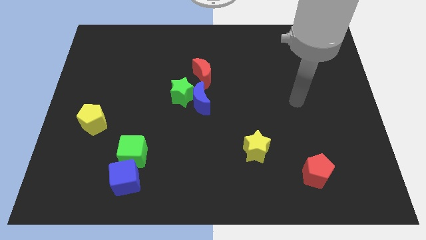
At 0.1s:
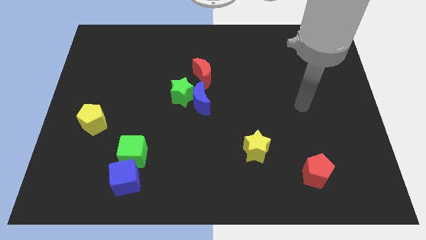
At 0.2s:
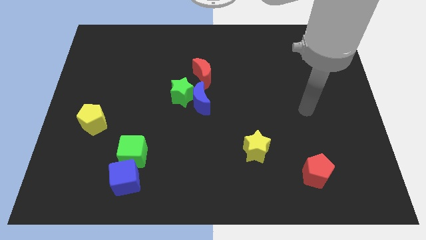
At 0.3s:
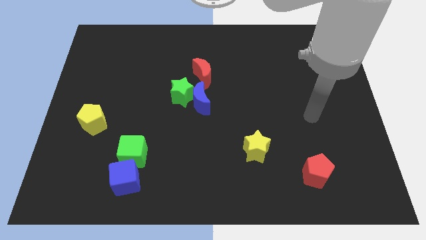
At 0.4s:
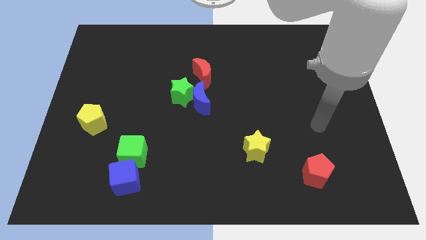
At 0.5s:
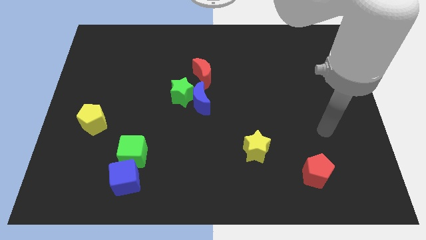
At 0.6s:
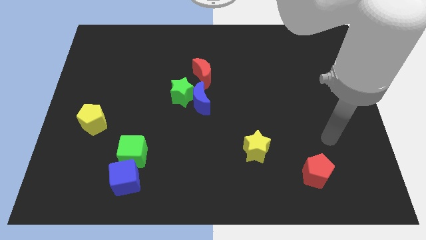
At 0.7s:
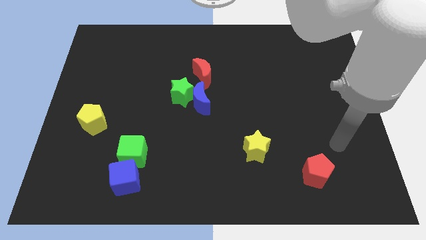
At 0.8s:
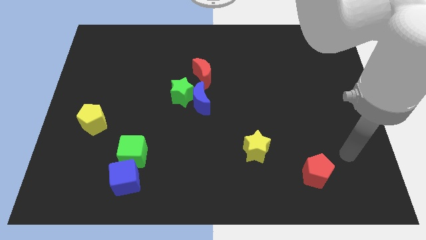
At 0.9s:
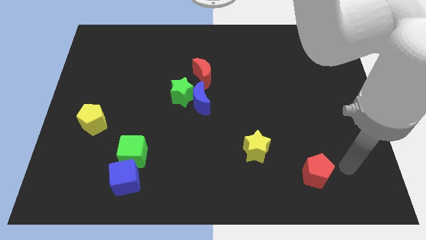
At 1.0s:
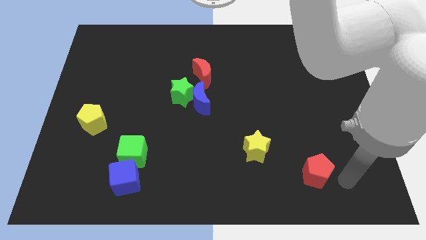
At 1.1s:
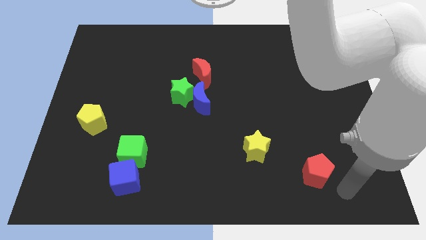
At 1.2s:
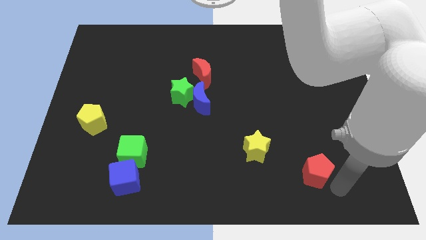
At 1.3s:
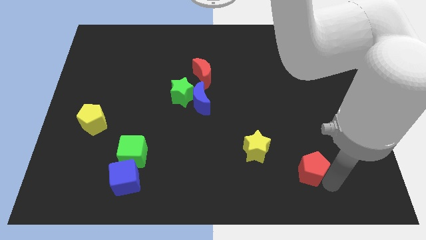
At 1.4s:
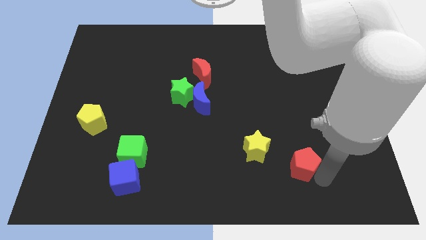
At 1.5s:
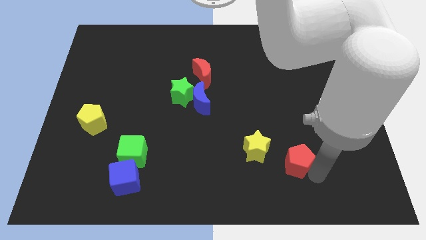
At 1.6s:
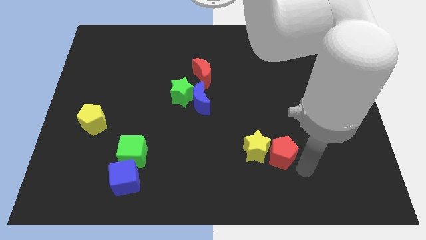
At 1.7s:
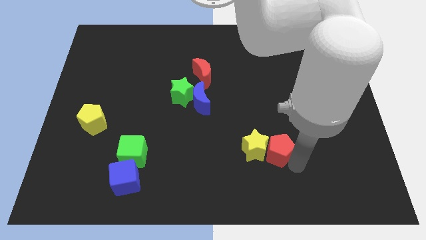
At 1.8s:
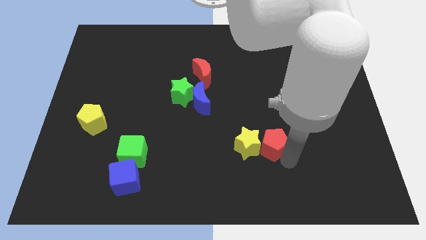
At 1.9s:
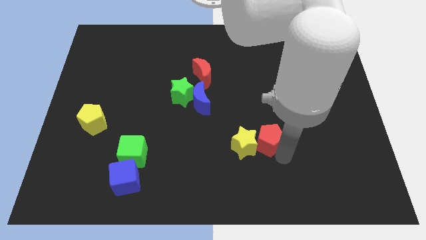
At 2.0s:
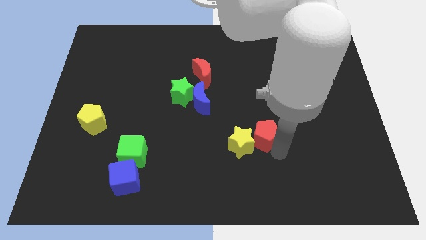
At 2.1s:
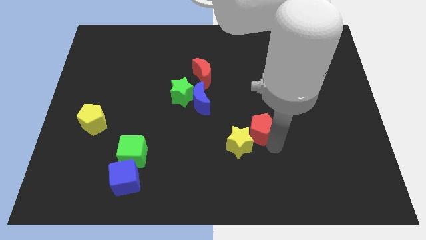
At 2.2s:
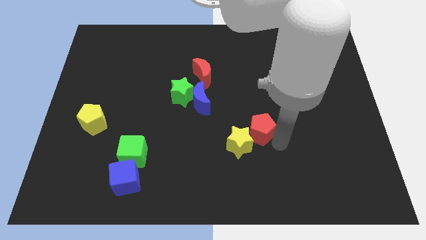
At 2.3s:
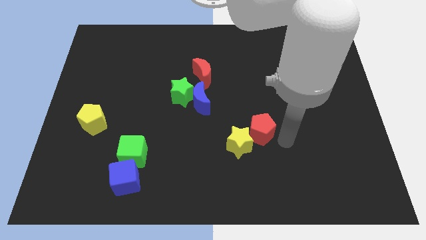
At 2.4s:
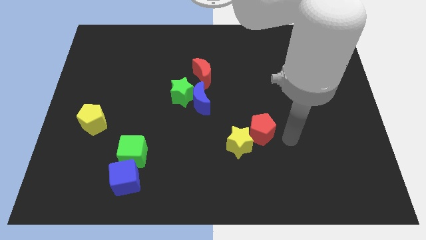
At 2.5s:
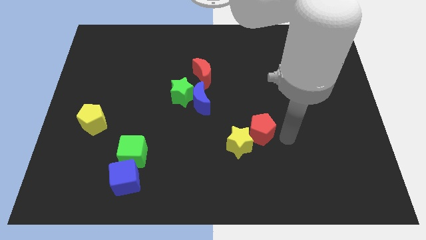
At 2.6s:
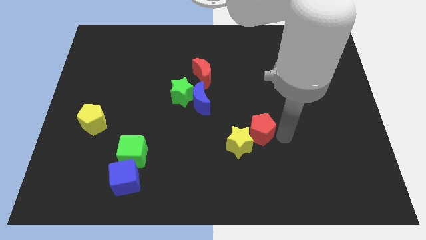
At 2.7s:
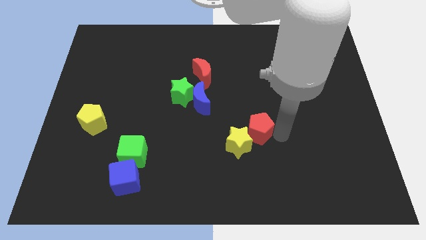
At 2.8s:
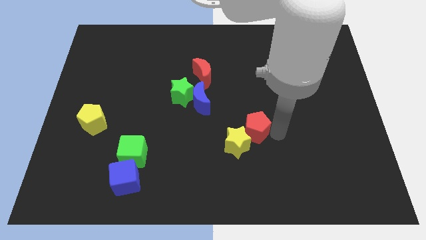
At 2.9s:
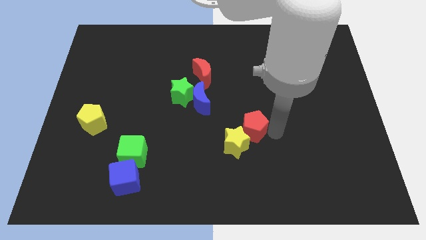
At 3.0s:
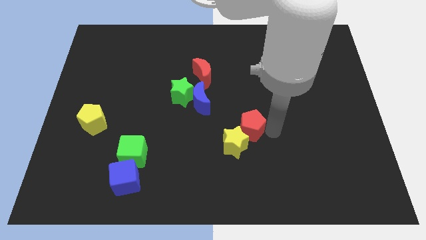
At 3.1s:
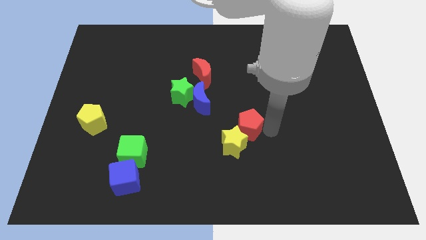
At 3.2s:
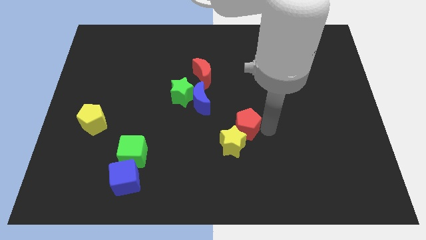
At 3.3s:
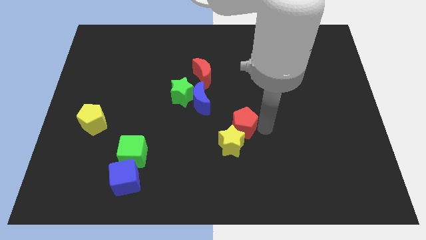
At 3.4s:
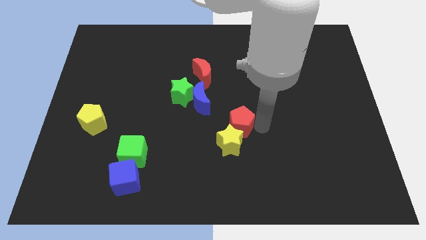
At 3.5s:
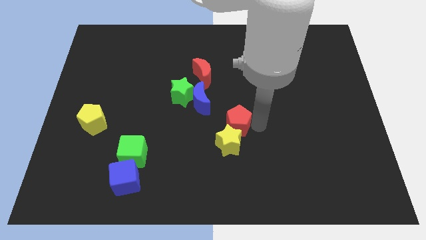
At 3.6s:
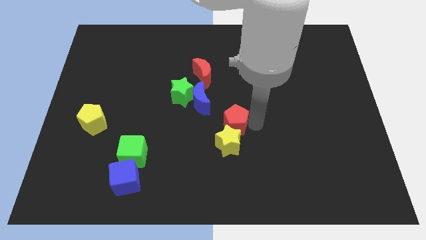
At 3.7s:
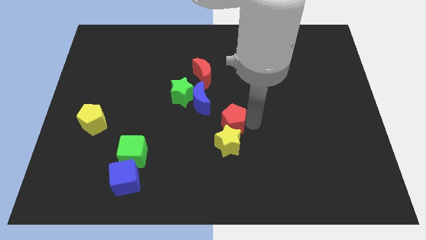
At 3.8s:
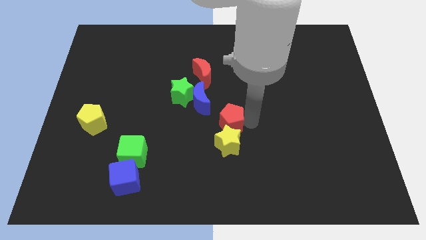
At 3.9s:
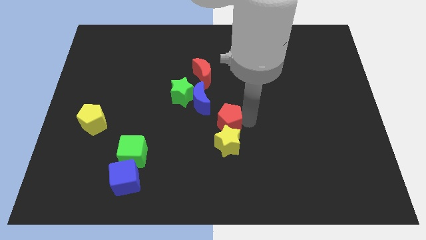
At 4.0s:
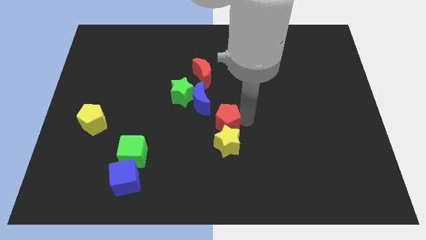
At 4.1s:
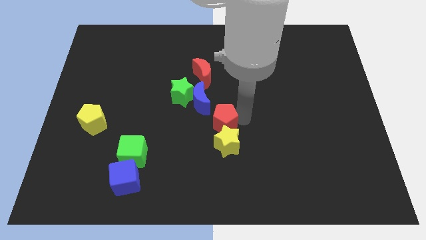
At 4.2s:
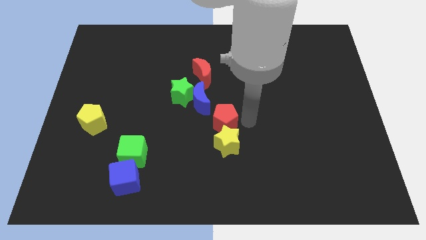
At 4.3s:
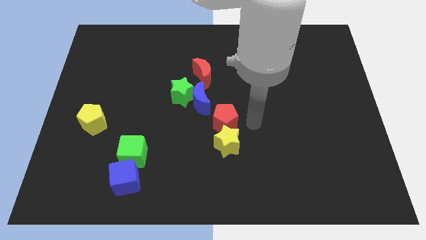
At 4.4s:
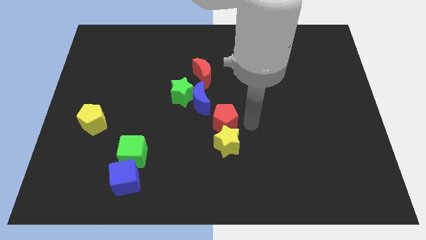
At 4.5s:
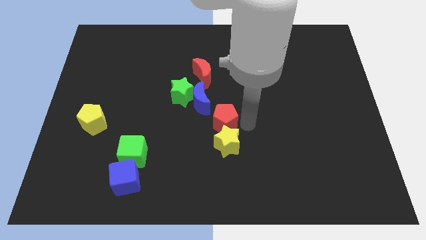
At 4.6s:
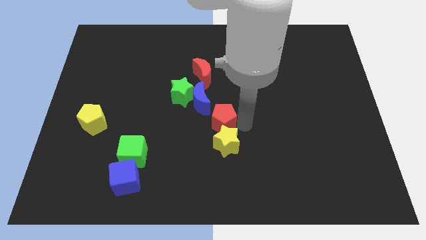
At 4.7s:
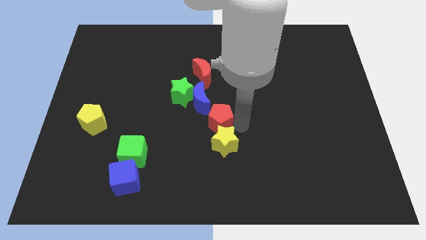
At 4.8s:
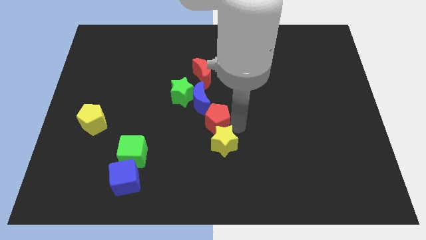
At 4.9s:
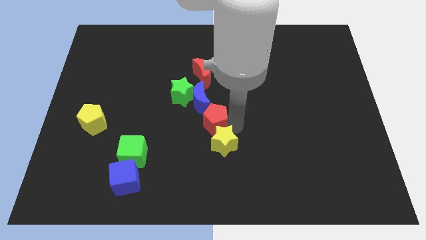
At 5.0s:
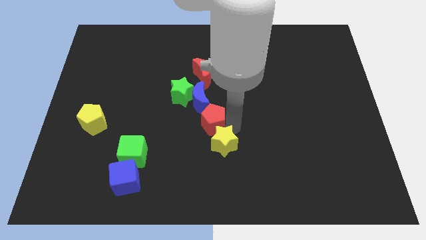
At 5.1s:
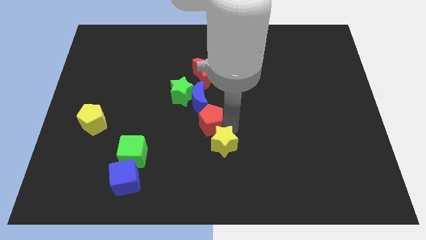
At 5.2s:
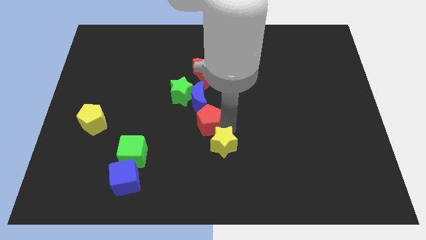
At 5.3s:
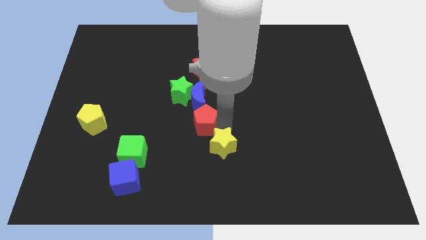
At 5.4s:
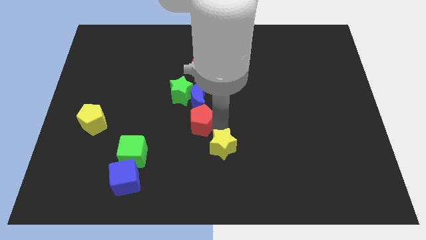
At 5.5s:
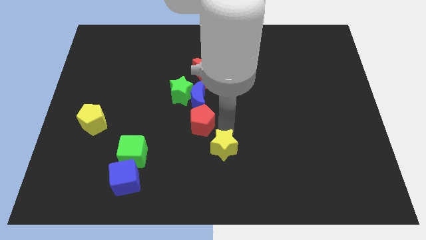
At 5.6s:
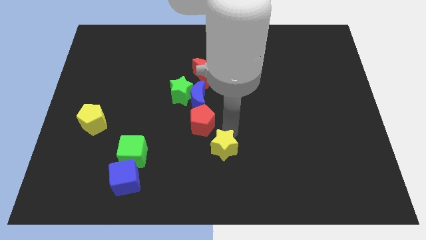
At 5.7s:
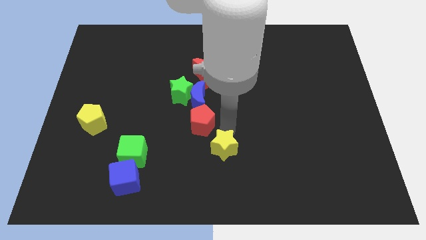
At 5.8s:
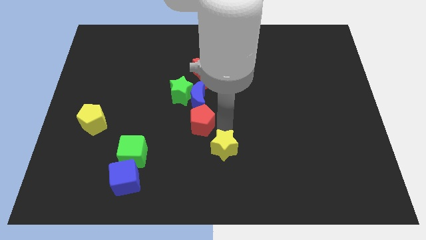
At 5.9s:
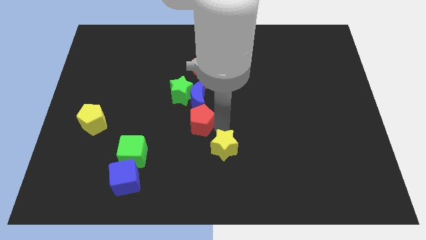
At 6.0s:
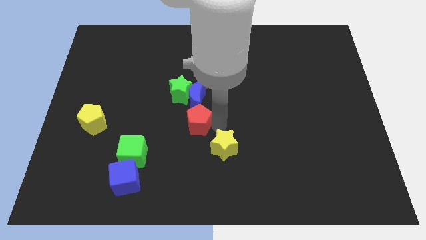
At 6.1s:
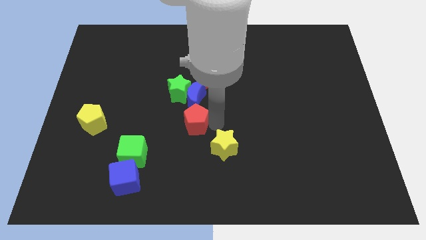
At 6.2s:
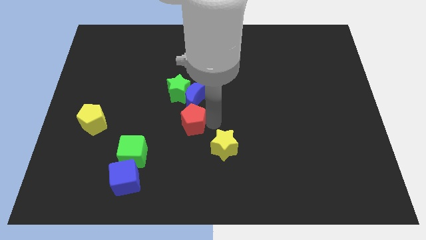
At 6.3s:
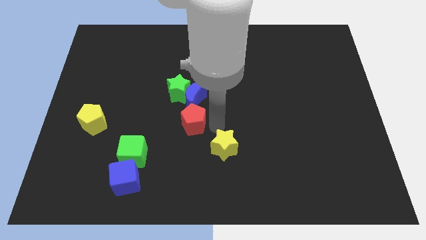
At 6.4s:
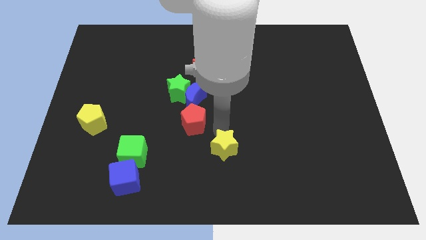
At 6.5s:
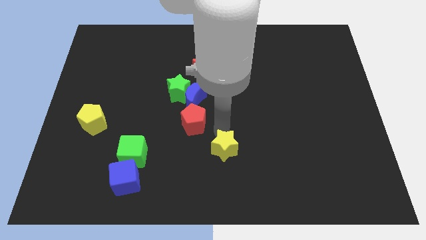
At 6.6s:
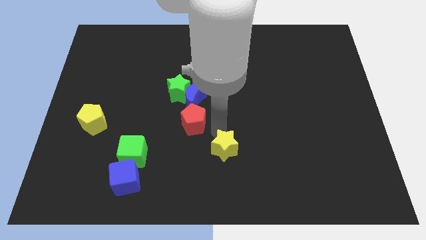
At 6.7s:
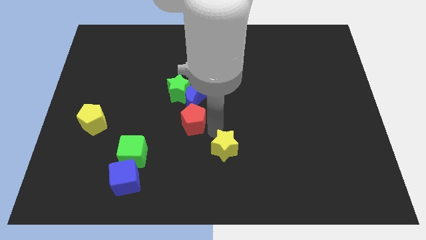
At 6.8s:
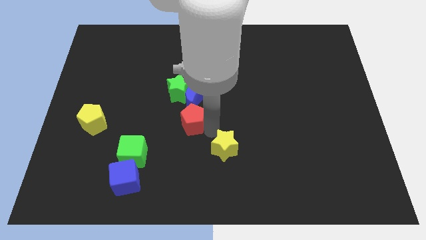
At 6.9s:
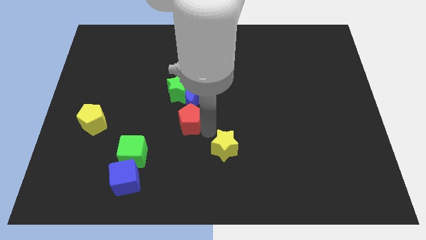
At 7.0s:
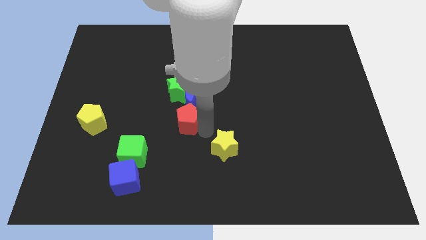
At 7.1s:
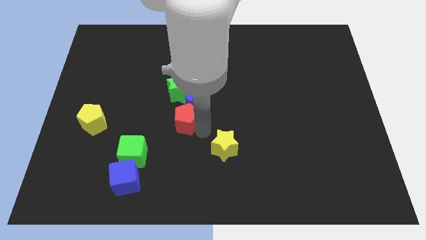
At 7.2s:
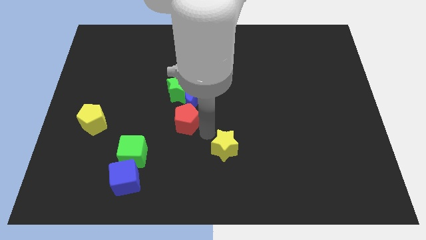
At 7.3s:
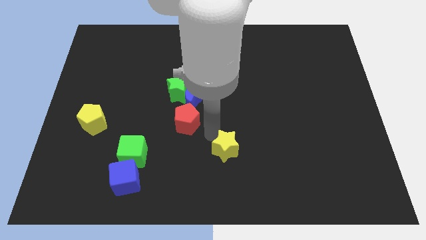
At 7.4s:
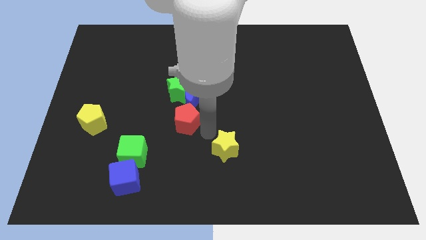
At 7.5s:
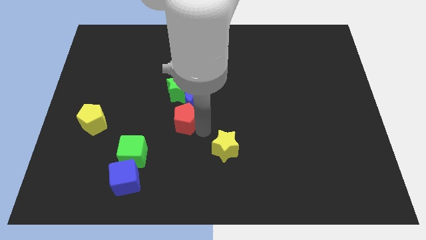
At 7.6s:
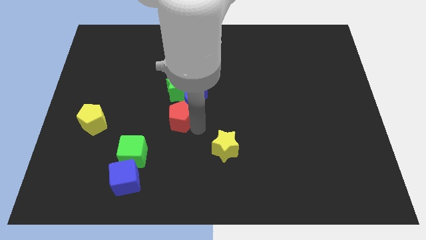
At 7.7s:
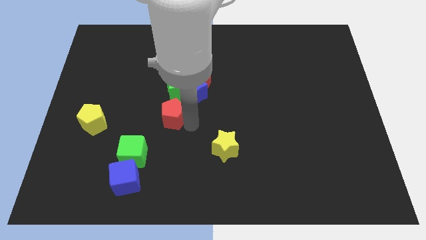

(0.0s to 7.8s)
push the red pentagon to the bottom left side of the green star
